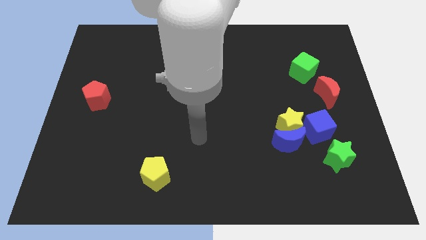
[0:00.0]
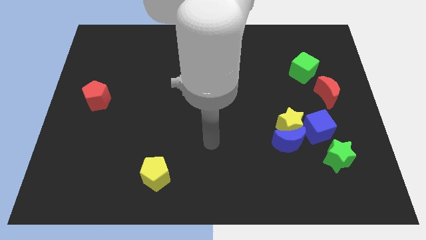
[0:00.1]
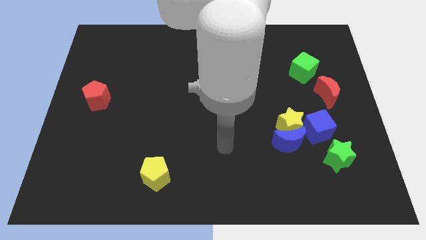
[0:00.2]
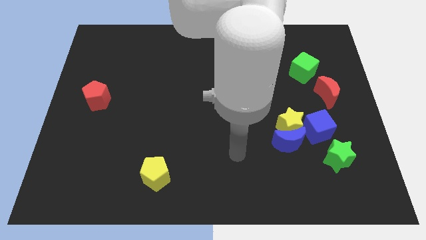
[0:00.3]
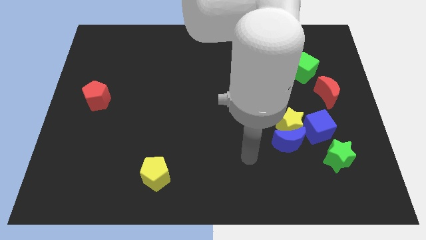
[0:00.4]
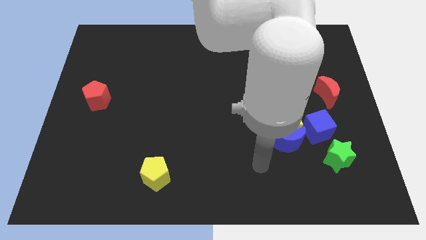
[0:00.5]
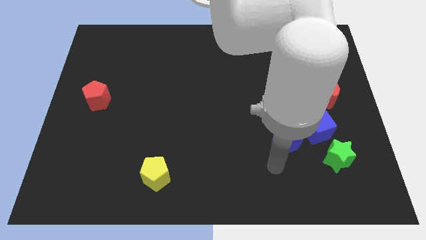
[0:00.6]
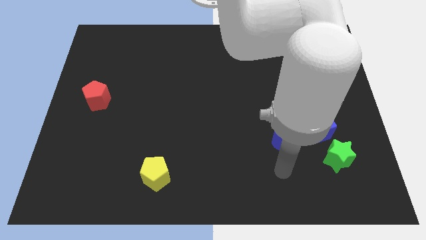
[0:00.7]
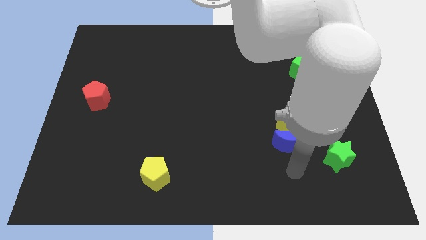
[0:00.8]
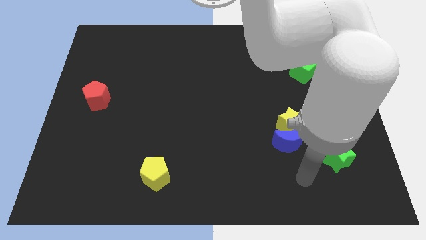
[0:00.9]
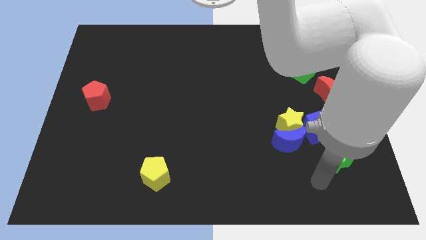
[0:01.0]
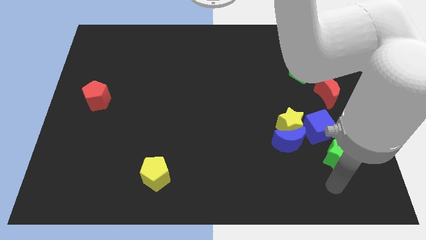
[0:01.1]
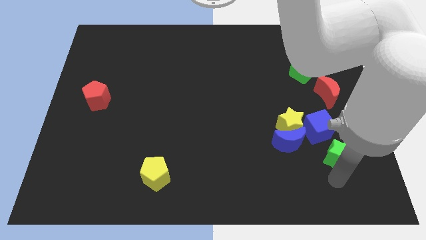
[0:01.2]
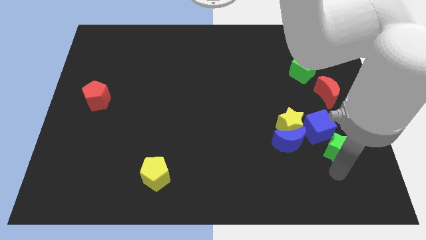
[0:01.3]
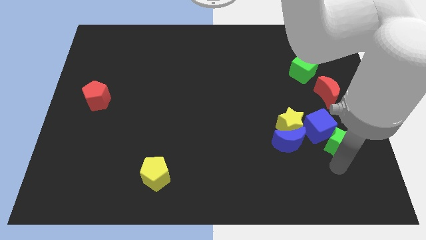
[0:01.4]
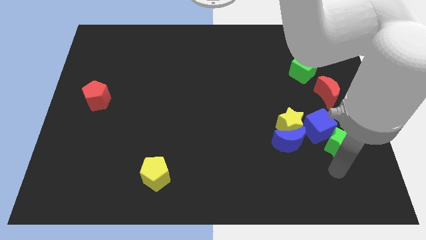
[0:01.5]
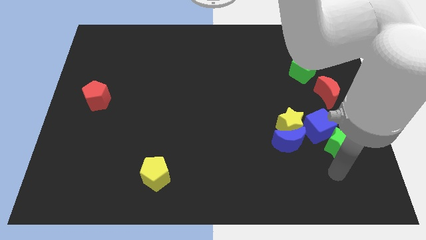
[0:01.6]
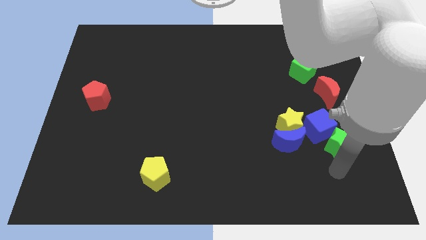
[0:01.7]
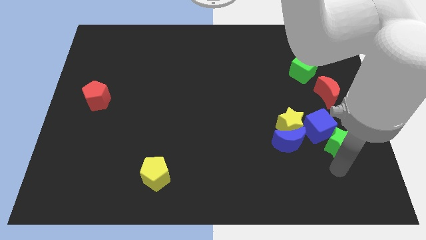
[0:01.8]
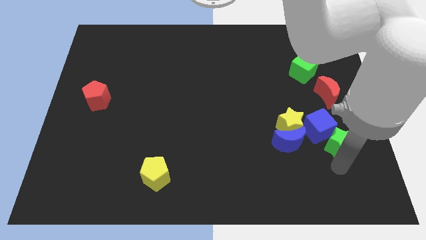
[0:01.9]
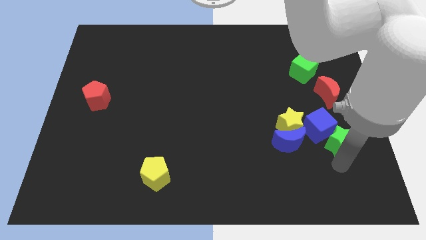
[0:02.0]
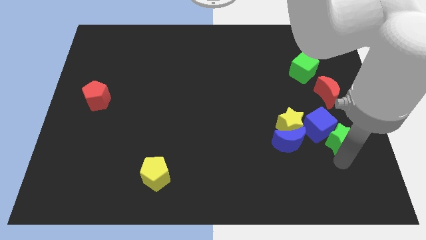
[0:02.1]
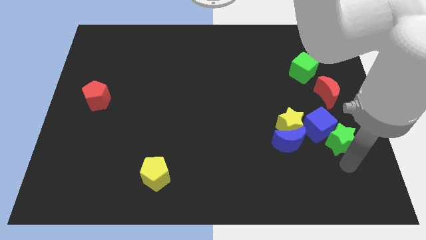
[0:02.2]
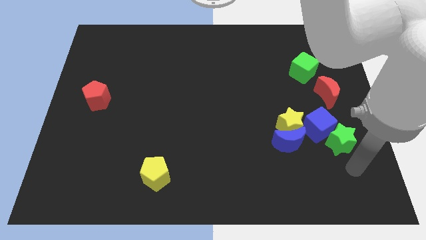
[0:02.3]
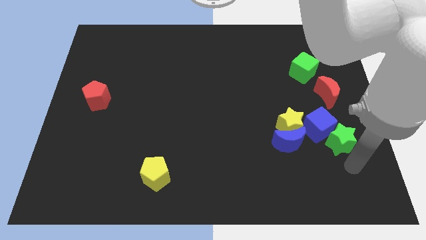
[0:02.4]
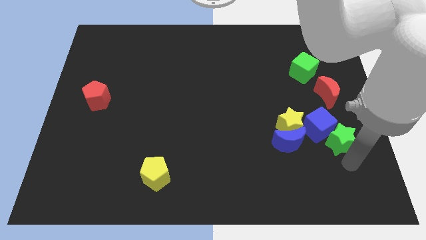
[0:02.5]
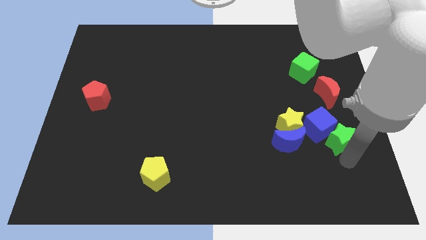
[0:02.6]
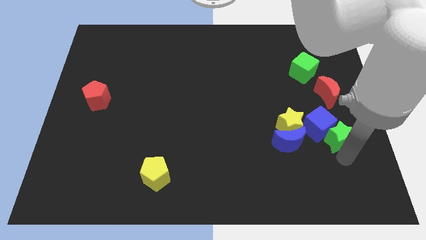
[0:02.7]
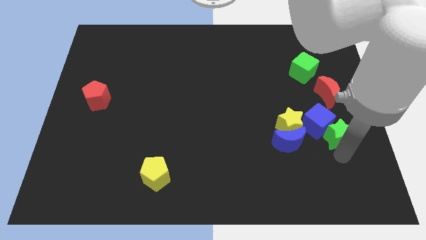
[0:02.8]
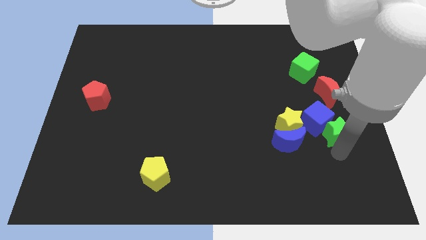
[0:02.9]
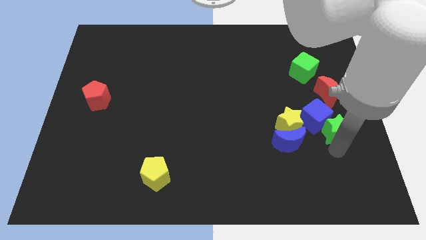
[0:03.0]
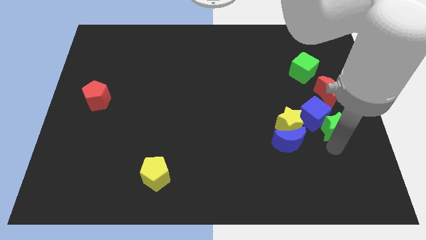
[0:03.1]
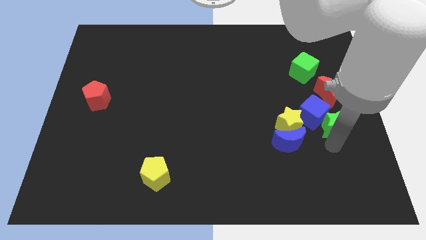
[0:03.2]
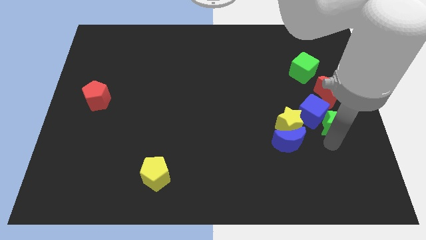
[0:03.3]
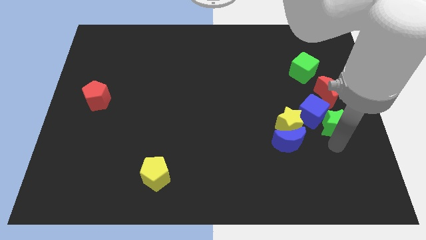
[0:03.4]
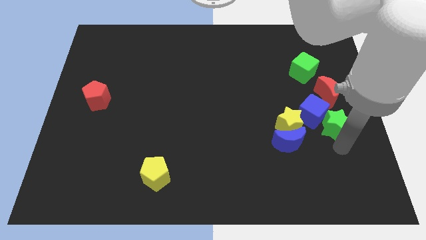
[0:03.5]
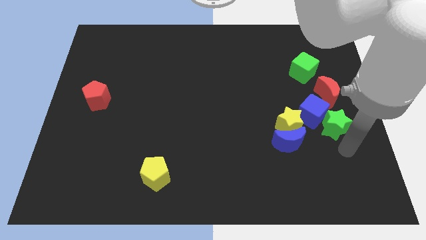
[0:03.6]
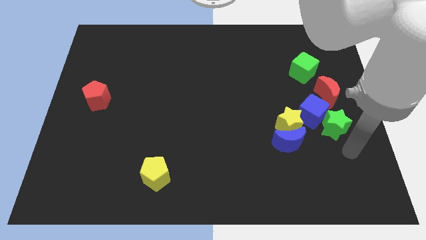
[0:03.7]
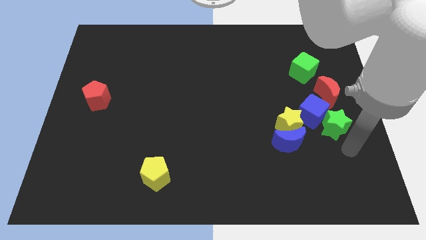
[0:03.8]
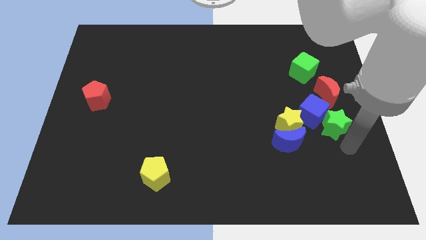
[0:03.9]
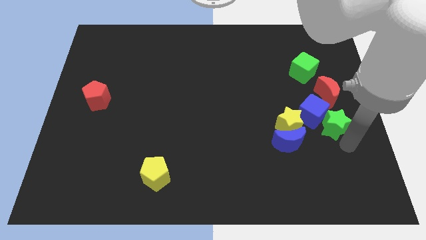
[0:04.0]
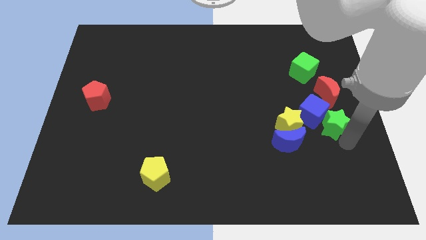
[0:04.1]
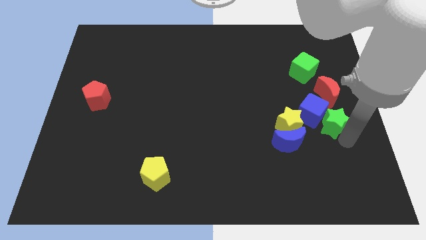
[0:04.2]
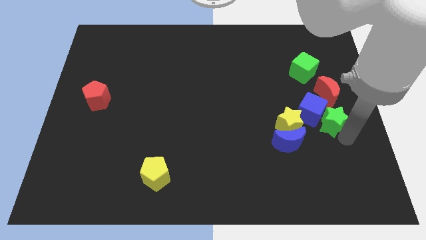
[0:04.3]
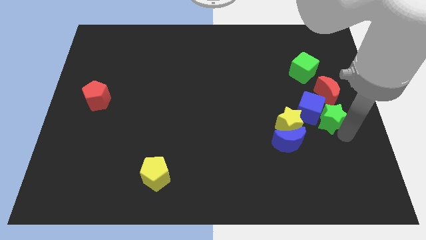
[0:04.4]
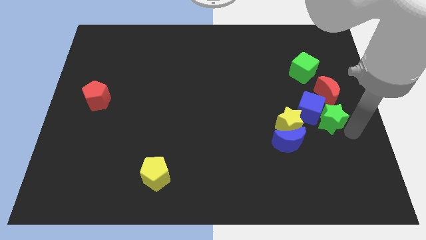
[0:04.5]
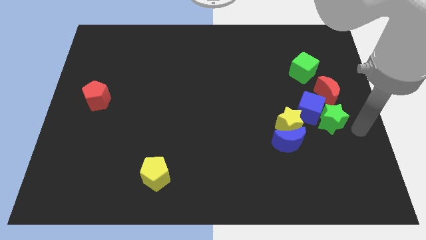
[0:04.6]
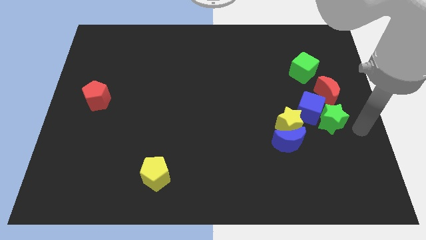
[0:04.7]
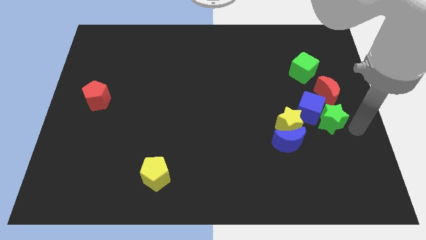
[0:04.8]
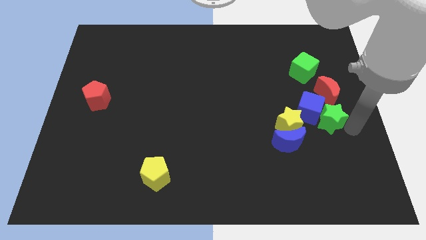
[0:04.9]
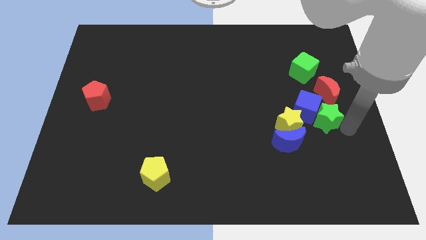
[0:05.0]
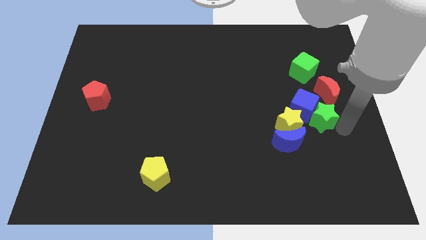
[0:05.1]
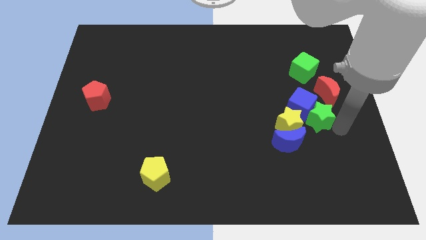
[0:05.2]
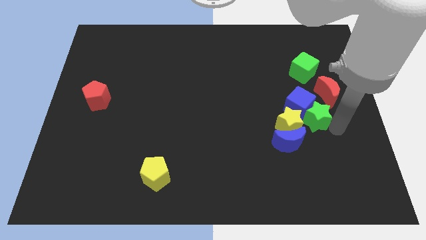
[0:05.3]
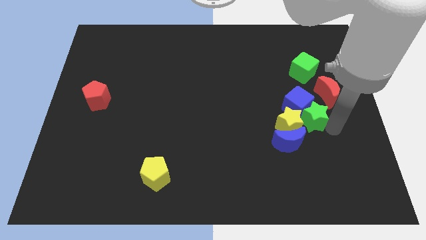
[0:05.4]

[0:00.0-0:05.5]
move the green star towards the yellow star

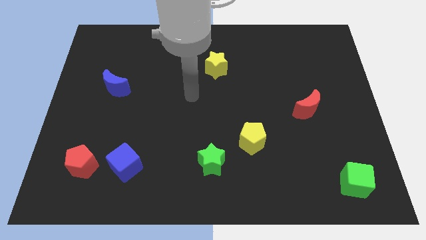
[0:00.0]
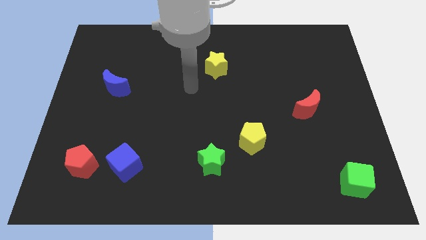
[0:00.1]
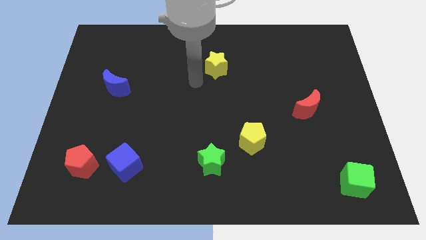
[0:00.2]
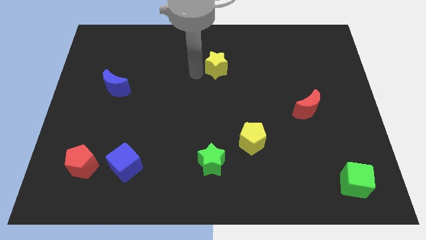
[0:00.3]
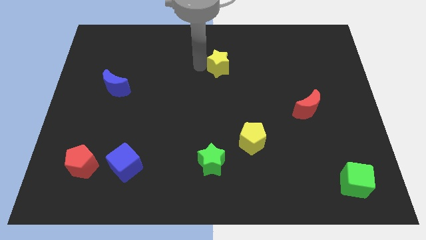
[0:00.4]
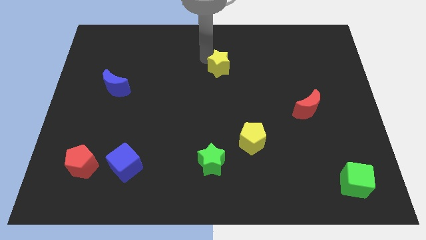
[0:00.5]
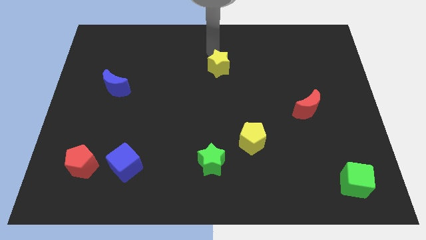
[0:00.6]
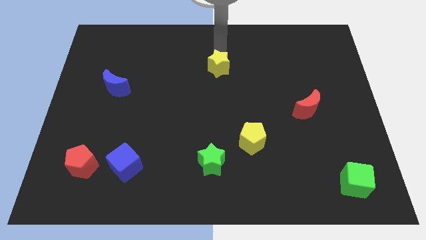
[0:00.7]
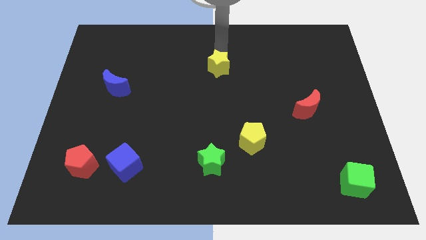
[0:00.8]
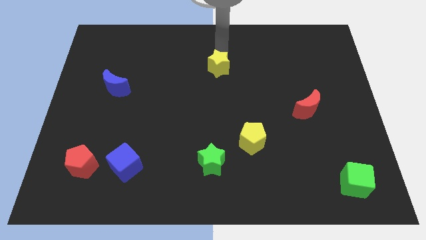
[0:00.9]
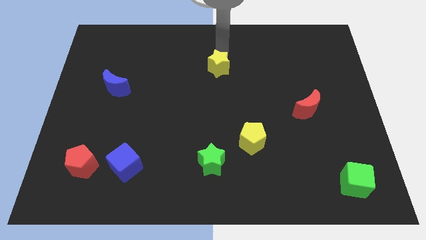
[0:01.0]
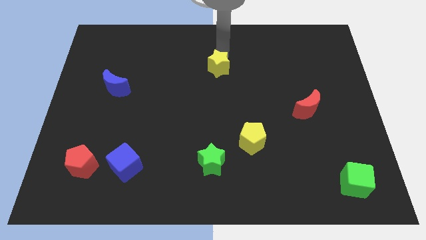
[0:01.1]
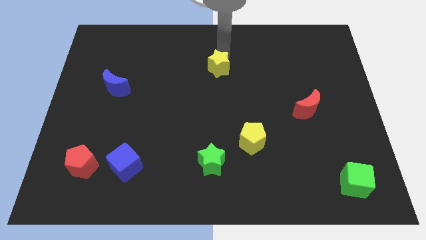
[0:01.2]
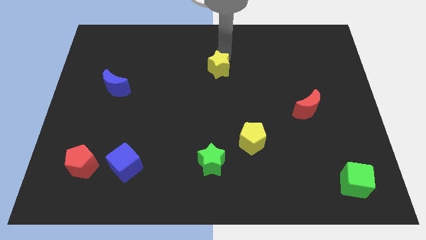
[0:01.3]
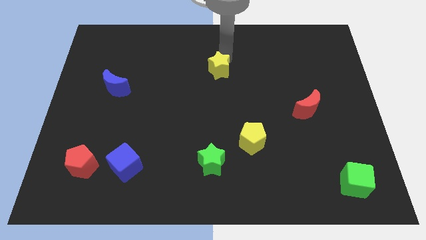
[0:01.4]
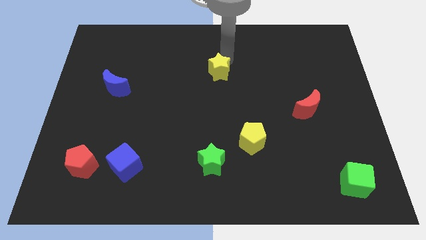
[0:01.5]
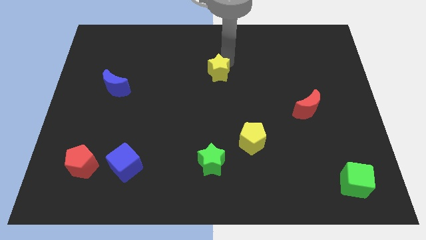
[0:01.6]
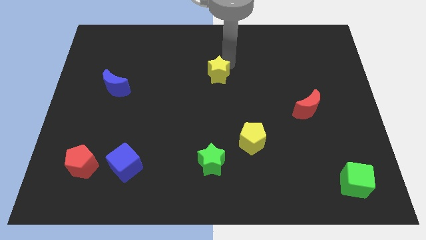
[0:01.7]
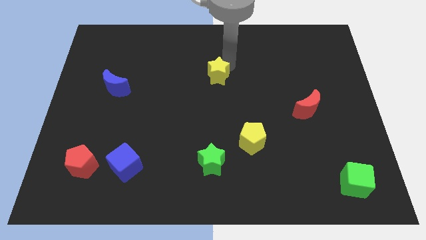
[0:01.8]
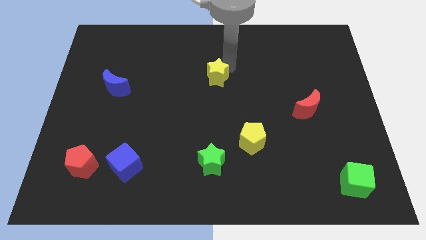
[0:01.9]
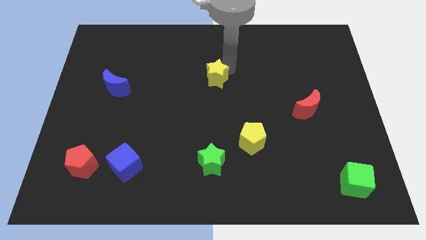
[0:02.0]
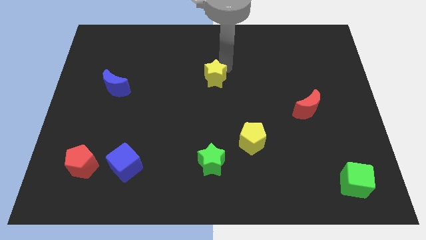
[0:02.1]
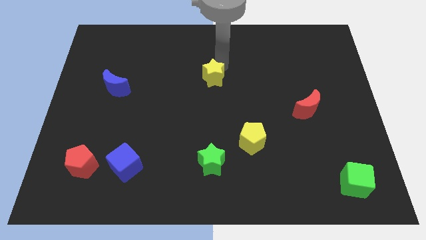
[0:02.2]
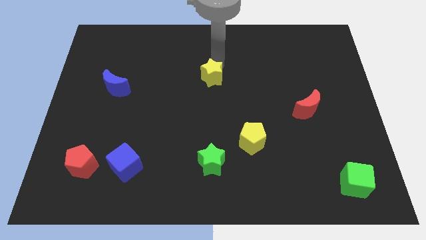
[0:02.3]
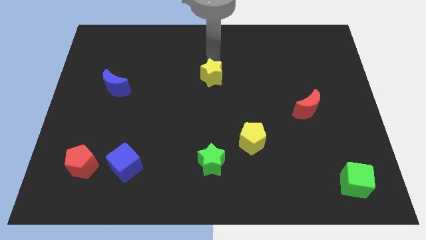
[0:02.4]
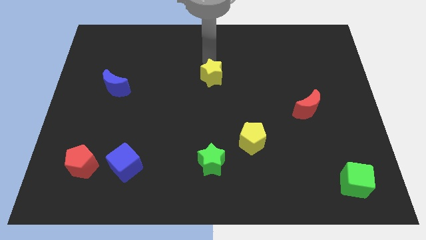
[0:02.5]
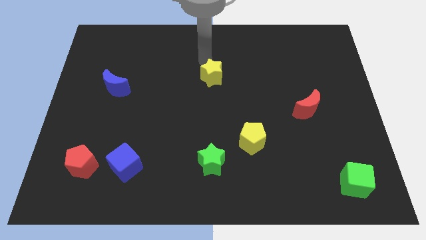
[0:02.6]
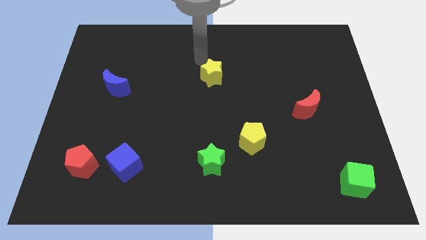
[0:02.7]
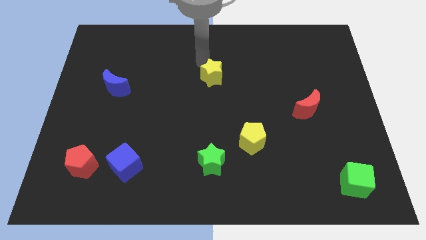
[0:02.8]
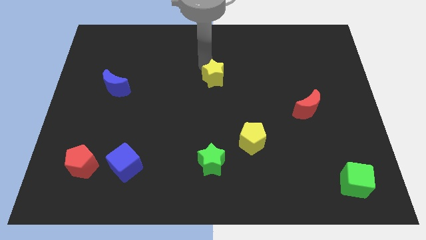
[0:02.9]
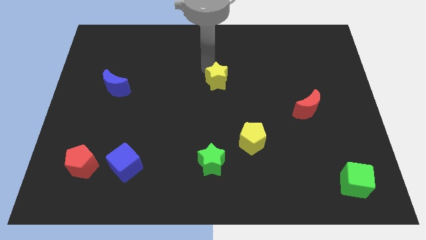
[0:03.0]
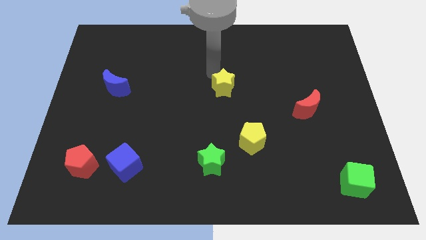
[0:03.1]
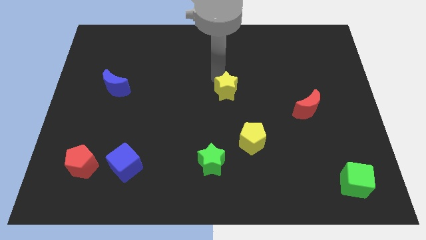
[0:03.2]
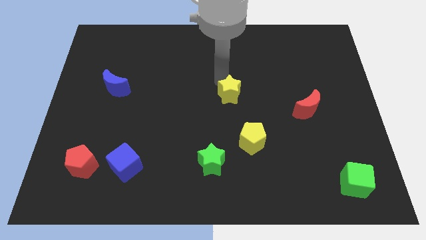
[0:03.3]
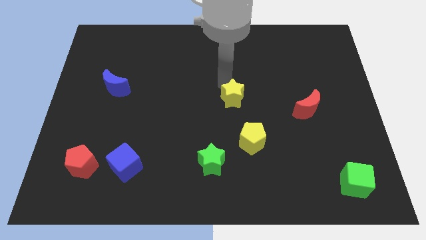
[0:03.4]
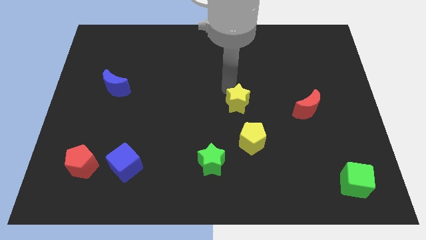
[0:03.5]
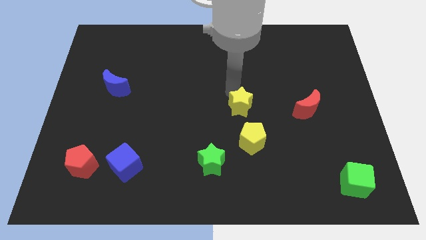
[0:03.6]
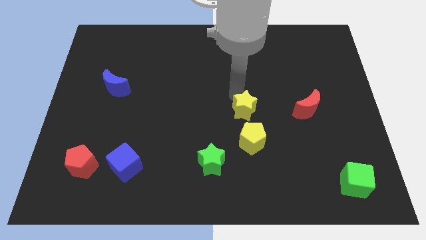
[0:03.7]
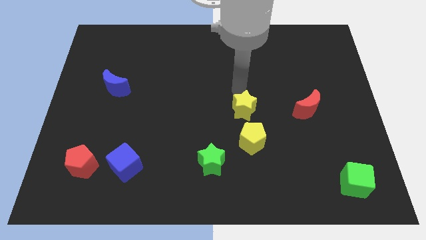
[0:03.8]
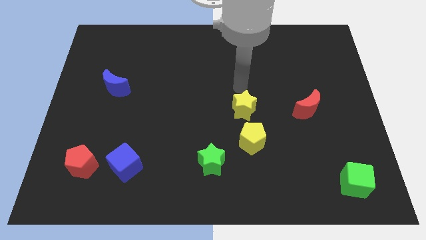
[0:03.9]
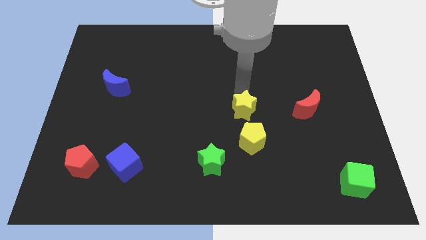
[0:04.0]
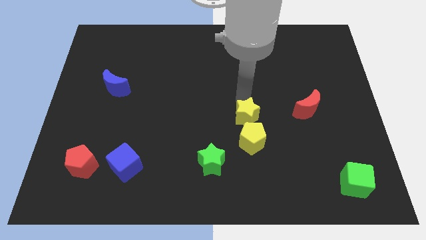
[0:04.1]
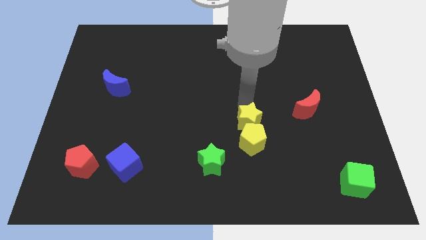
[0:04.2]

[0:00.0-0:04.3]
slide the yellow star close to the yellow pentagon
